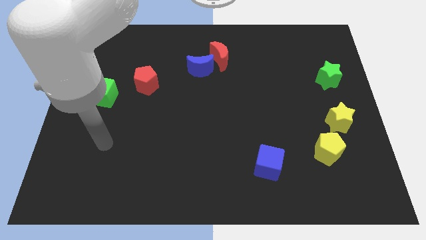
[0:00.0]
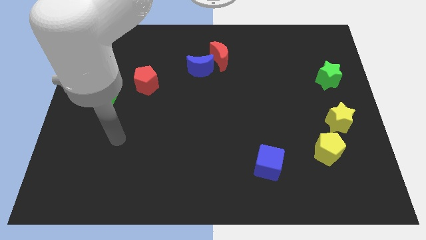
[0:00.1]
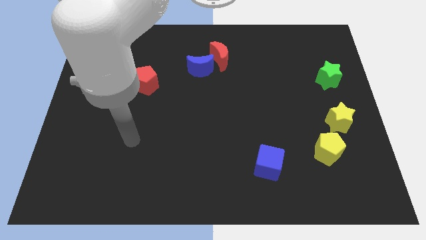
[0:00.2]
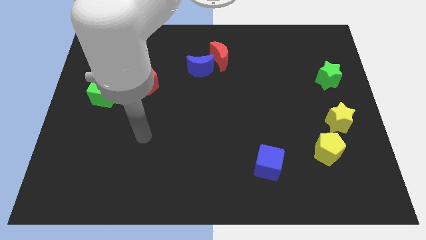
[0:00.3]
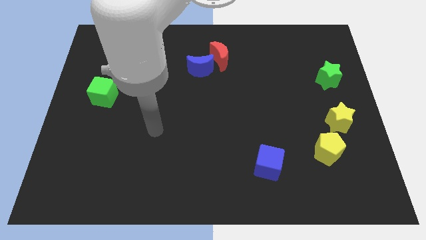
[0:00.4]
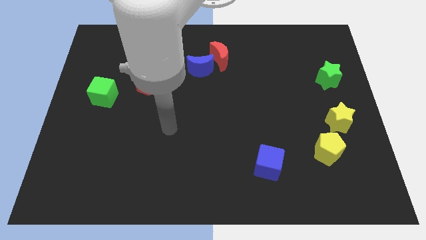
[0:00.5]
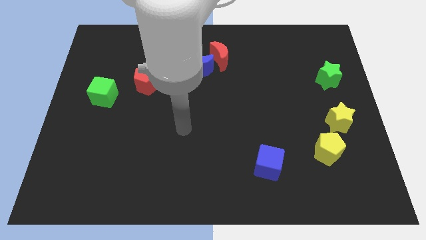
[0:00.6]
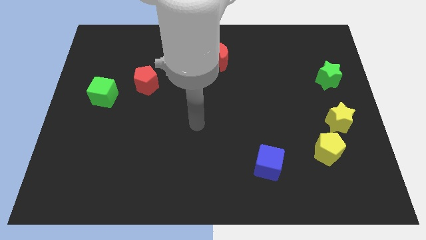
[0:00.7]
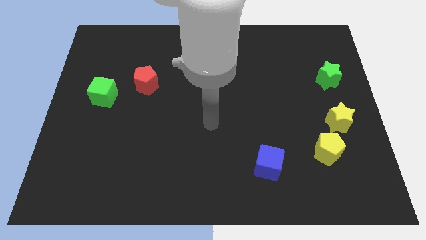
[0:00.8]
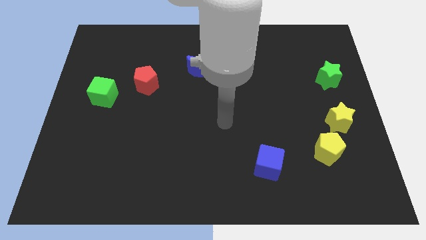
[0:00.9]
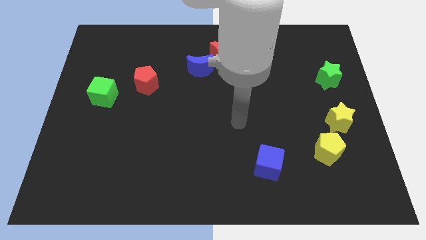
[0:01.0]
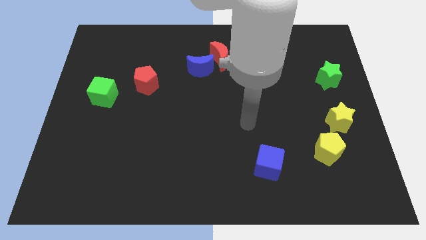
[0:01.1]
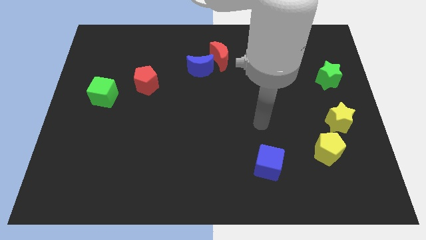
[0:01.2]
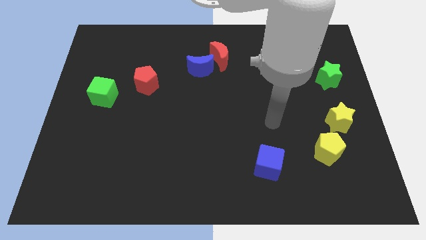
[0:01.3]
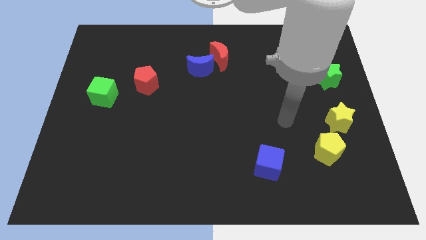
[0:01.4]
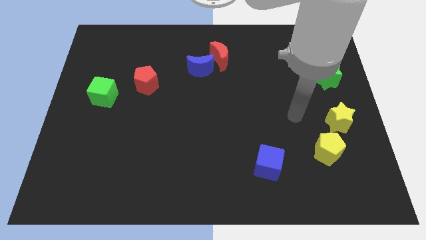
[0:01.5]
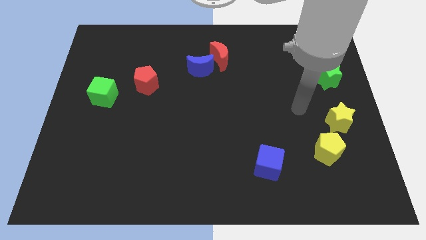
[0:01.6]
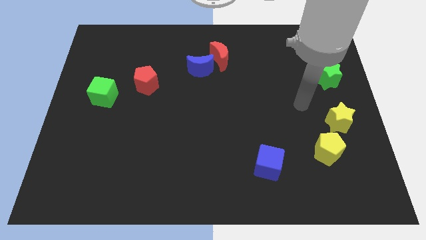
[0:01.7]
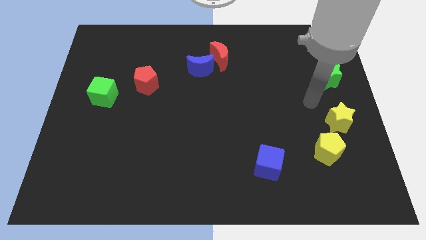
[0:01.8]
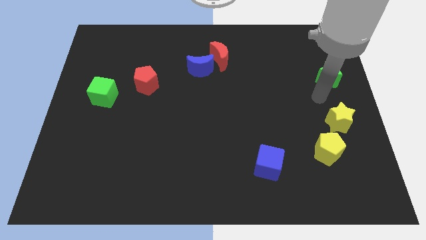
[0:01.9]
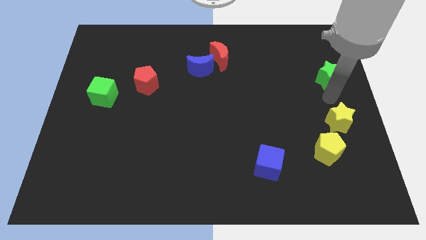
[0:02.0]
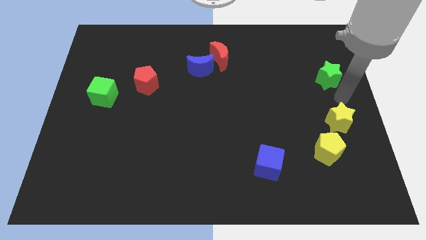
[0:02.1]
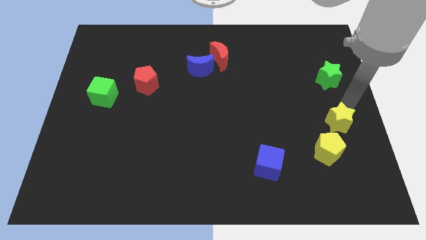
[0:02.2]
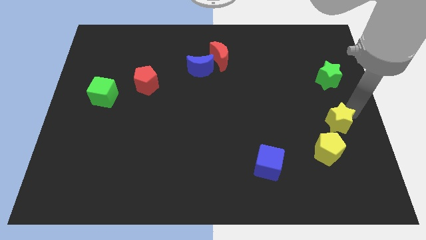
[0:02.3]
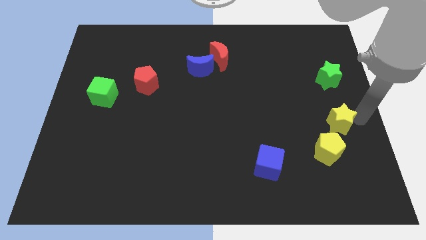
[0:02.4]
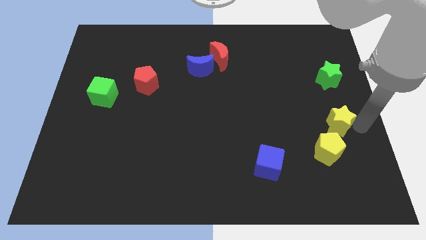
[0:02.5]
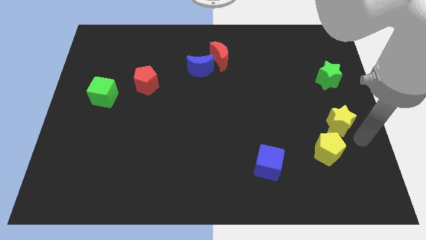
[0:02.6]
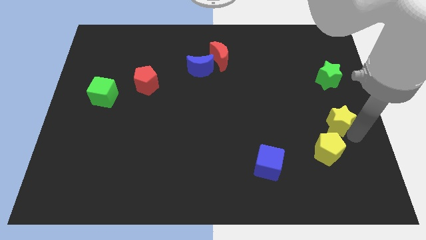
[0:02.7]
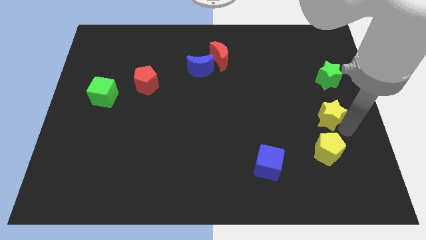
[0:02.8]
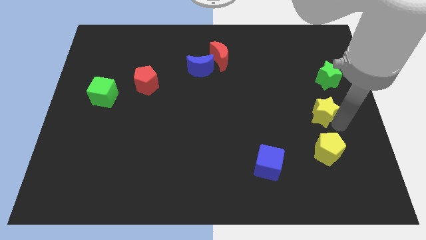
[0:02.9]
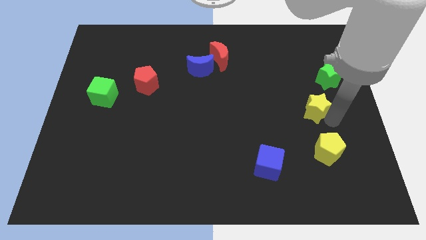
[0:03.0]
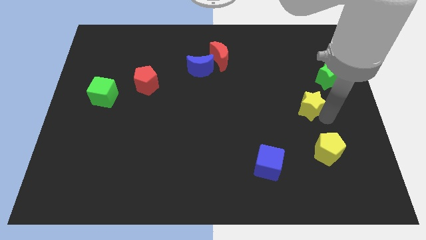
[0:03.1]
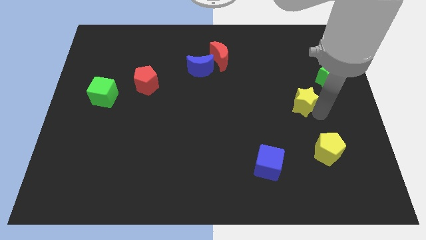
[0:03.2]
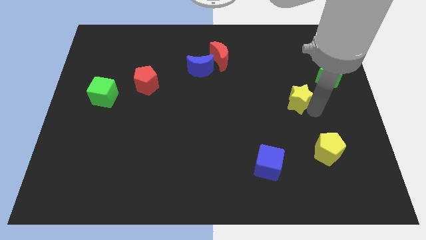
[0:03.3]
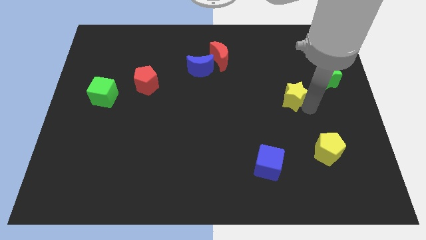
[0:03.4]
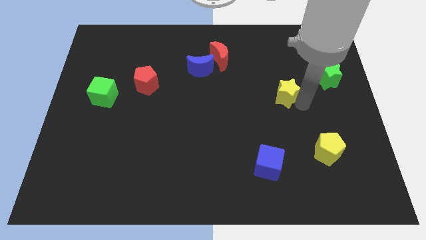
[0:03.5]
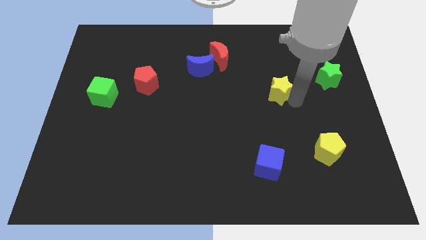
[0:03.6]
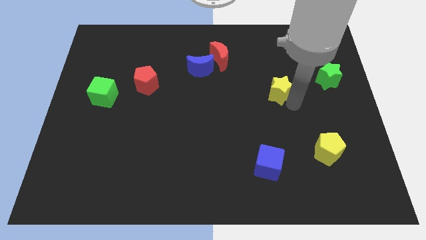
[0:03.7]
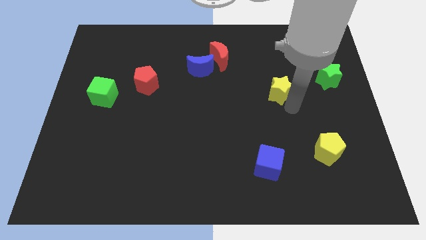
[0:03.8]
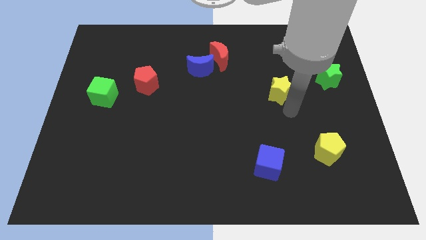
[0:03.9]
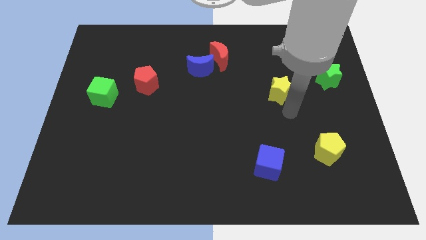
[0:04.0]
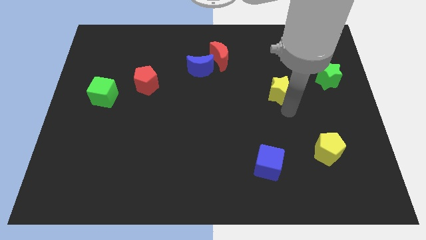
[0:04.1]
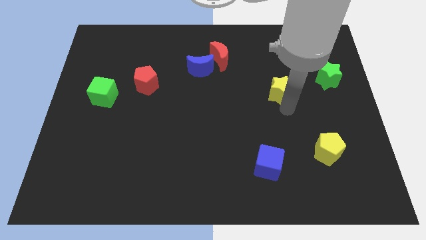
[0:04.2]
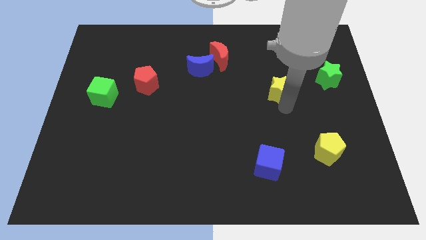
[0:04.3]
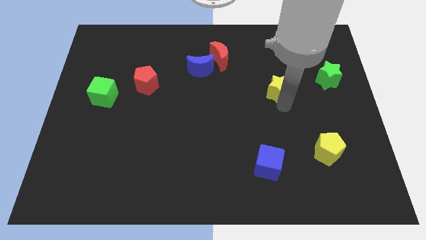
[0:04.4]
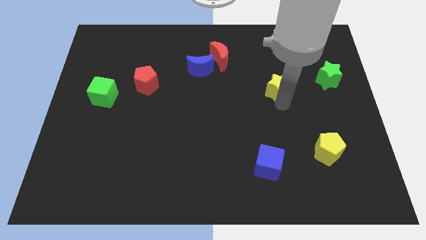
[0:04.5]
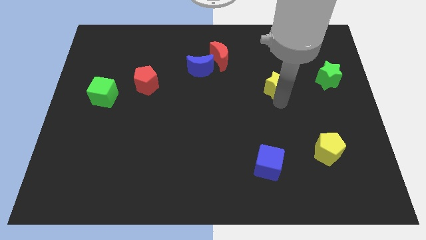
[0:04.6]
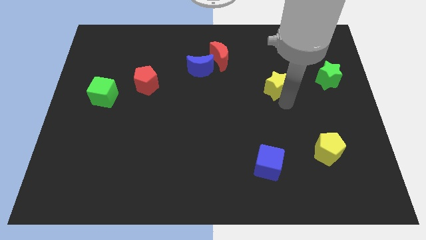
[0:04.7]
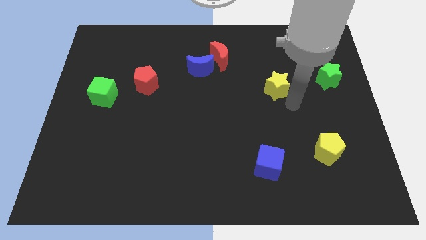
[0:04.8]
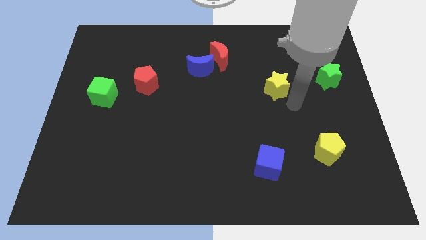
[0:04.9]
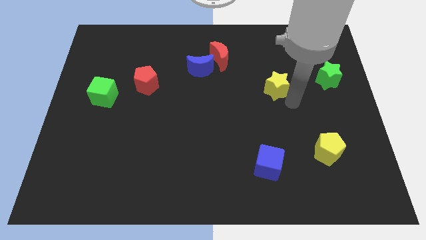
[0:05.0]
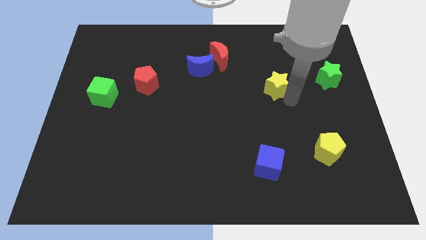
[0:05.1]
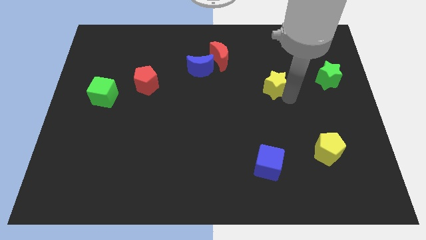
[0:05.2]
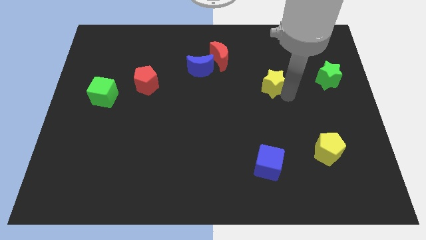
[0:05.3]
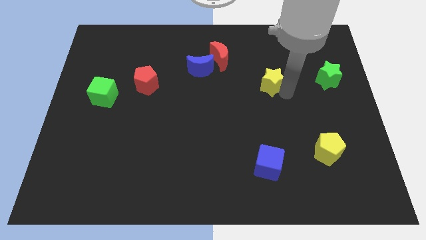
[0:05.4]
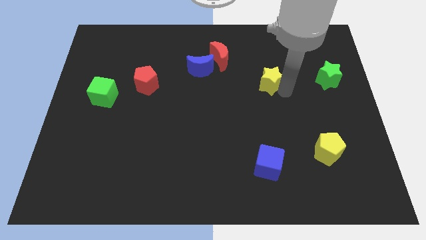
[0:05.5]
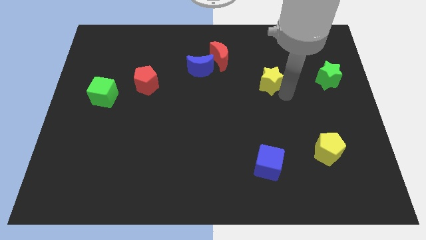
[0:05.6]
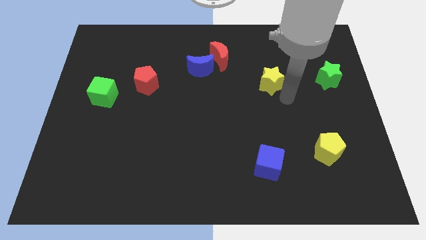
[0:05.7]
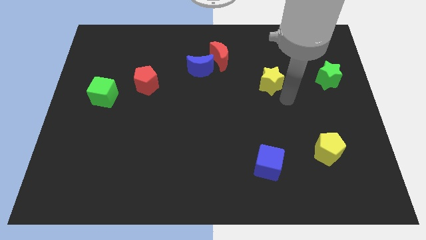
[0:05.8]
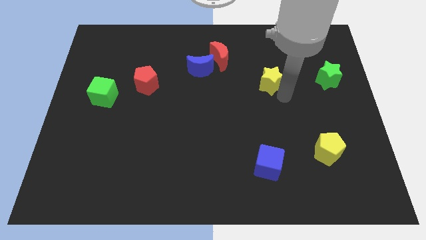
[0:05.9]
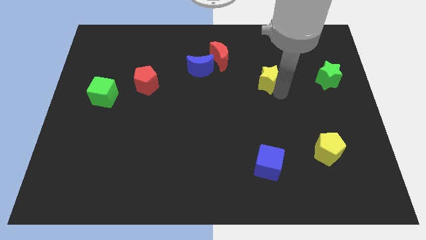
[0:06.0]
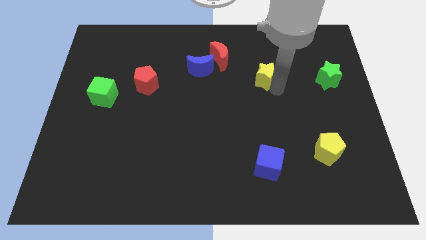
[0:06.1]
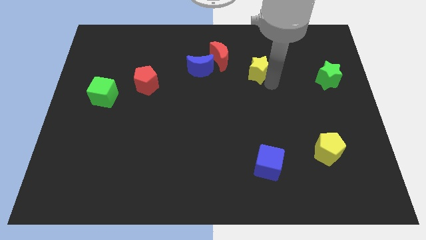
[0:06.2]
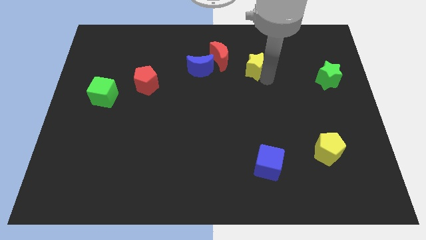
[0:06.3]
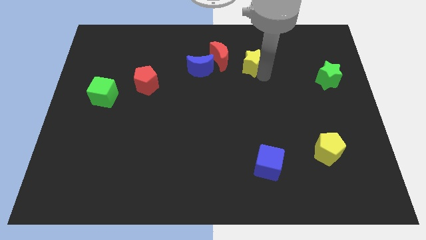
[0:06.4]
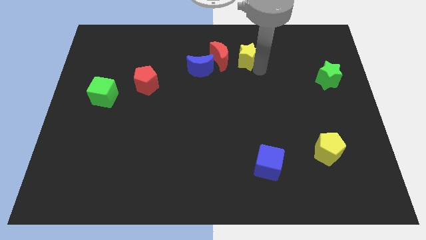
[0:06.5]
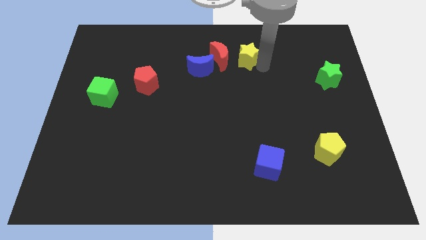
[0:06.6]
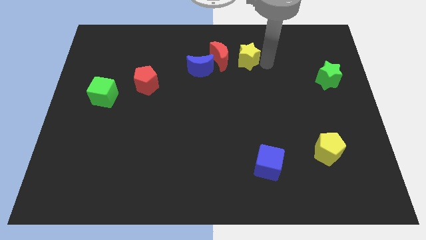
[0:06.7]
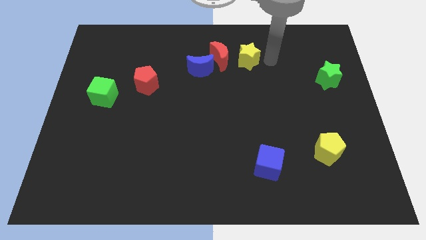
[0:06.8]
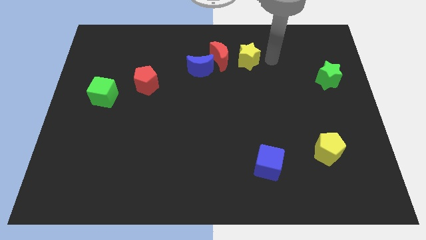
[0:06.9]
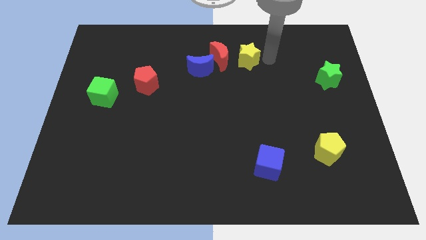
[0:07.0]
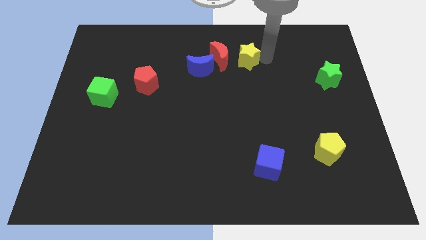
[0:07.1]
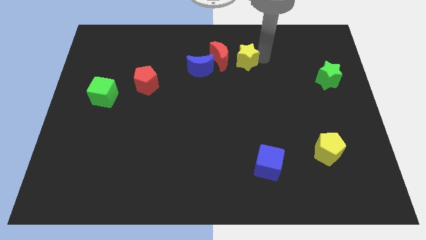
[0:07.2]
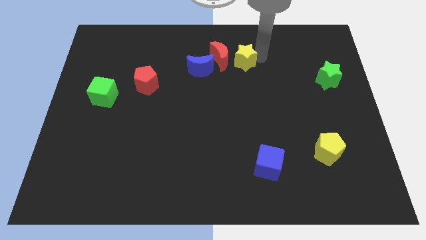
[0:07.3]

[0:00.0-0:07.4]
put the yellow star to the red moon

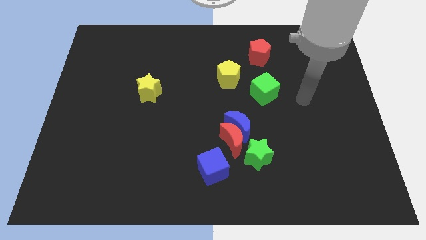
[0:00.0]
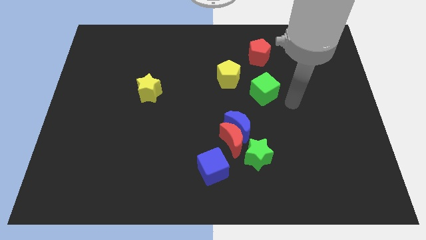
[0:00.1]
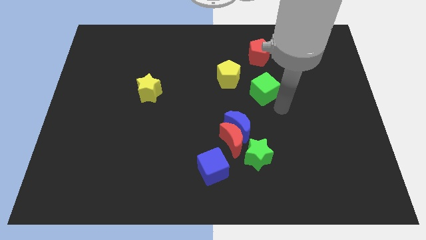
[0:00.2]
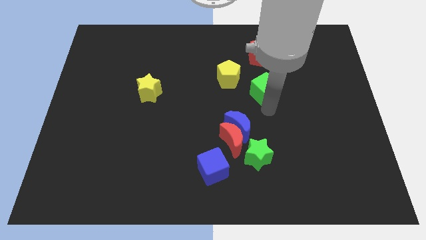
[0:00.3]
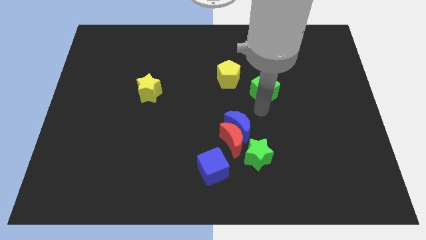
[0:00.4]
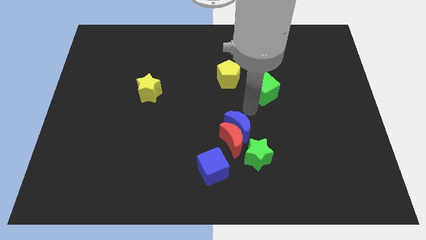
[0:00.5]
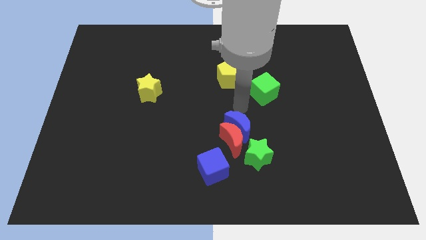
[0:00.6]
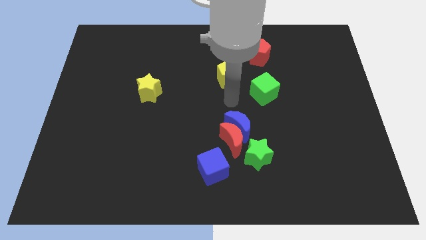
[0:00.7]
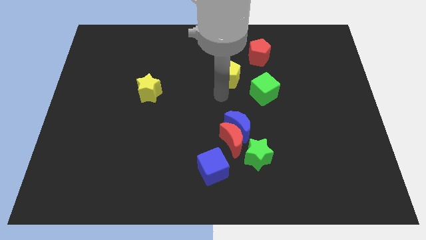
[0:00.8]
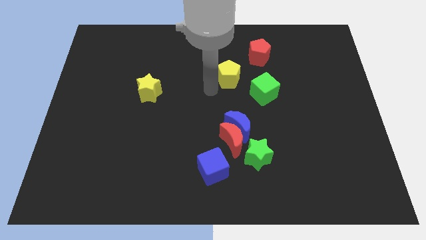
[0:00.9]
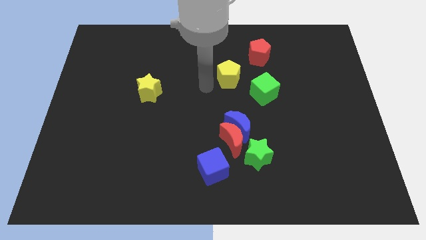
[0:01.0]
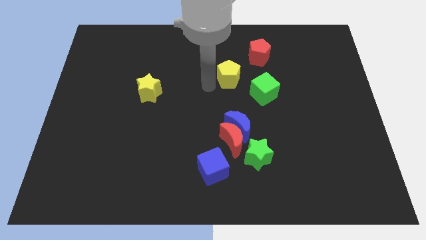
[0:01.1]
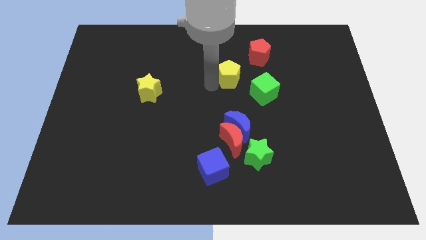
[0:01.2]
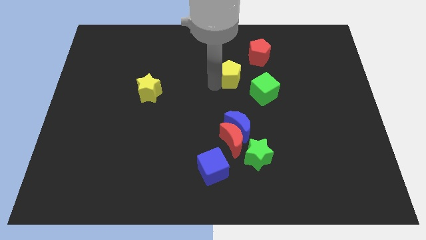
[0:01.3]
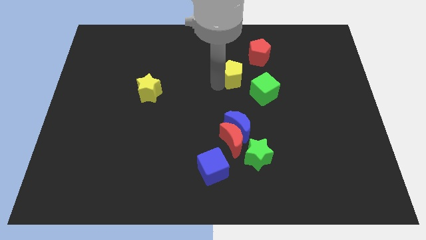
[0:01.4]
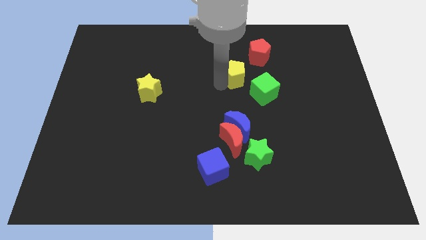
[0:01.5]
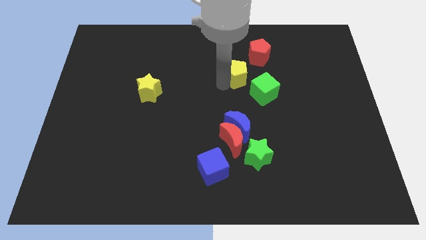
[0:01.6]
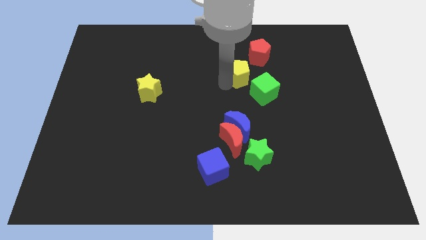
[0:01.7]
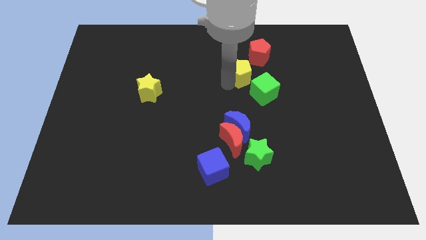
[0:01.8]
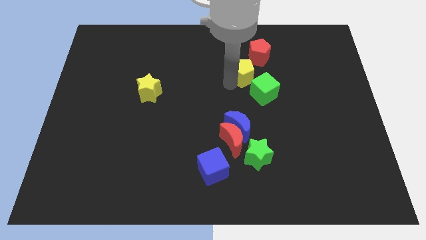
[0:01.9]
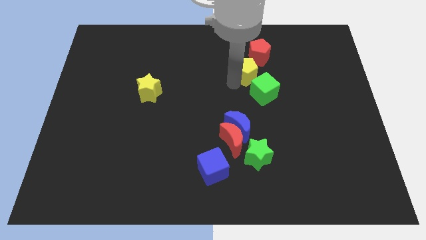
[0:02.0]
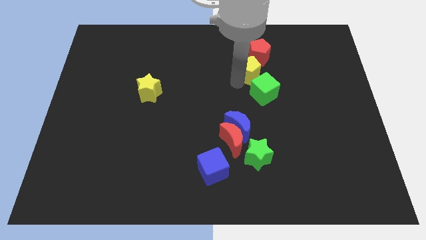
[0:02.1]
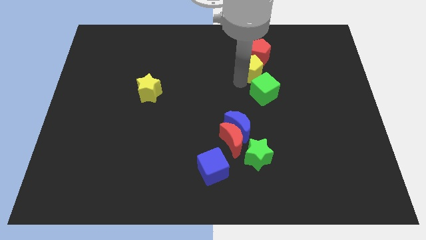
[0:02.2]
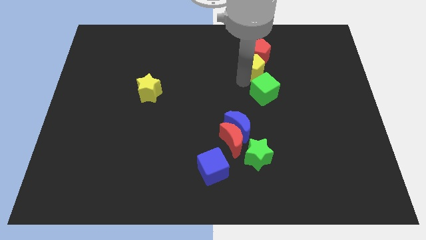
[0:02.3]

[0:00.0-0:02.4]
move the yellow pentagon close to the red pentagon
